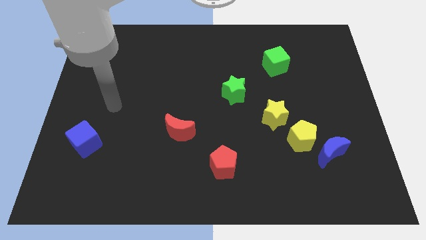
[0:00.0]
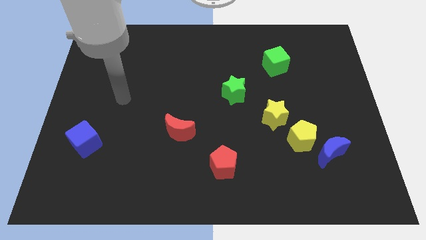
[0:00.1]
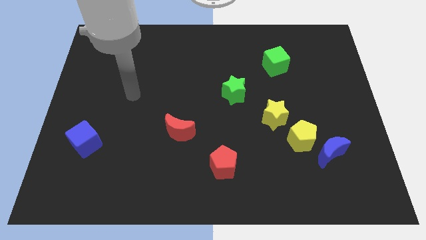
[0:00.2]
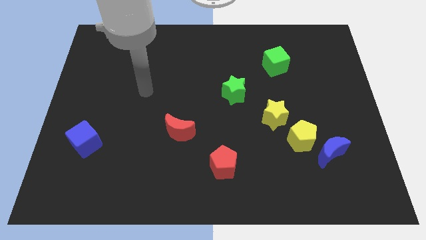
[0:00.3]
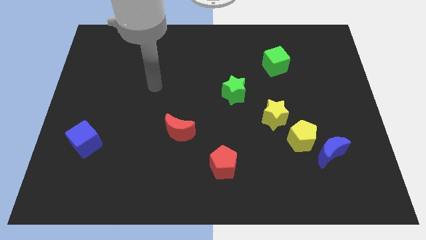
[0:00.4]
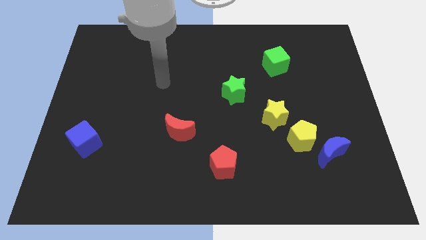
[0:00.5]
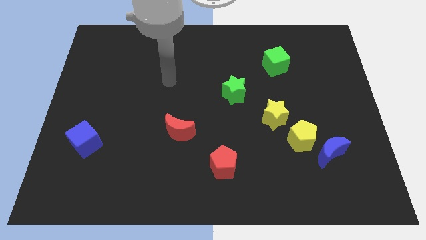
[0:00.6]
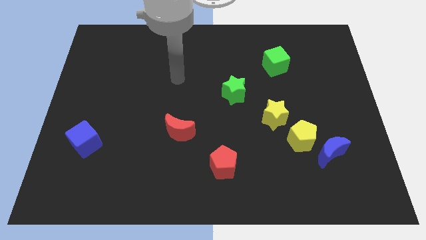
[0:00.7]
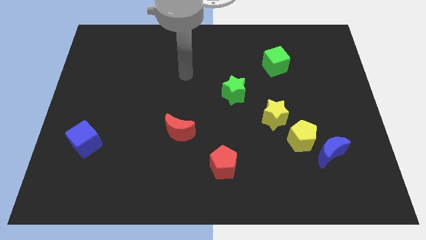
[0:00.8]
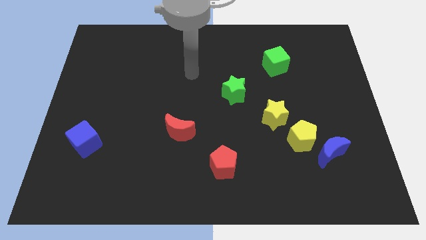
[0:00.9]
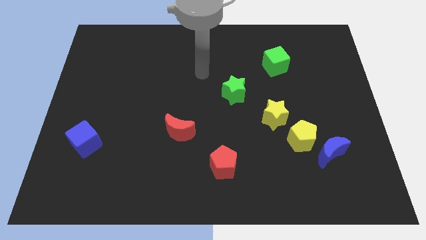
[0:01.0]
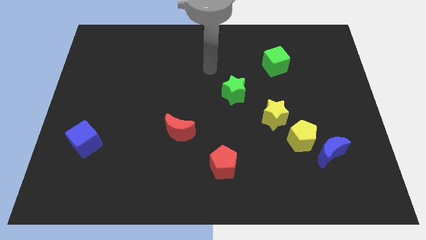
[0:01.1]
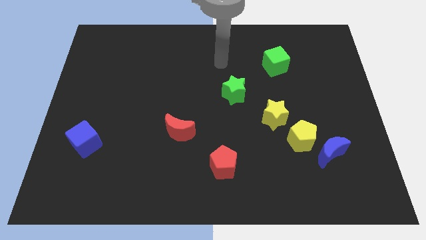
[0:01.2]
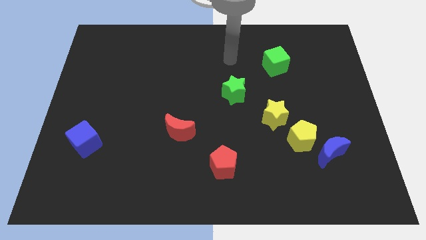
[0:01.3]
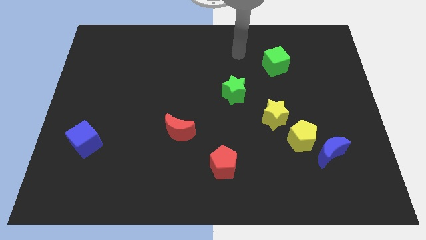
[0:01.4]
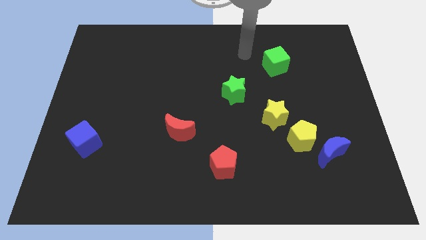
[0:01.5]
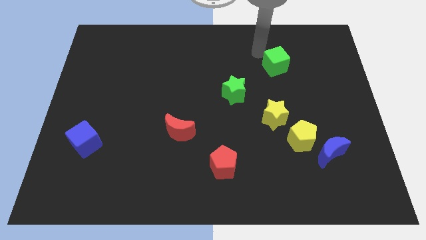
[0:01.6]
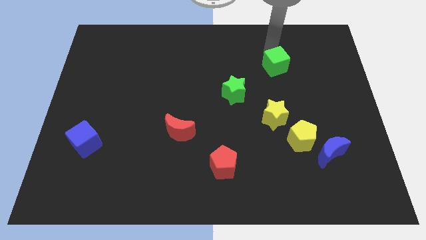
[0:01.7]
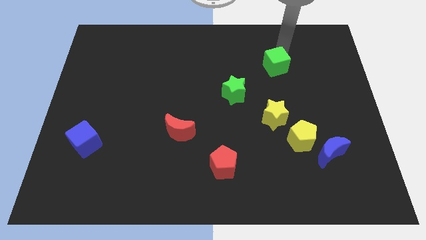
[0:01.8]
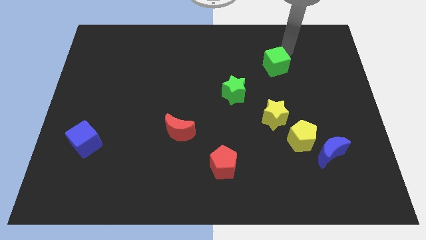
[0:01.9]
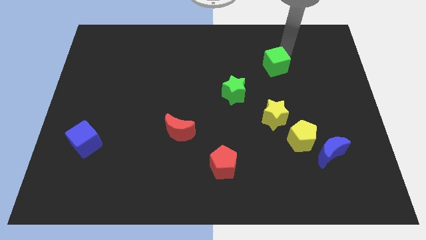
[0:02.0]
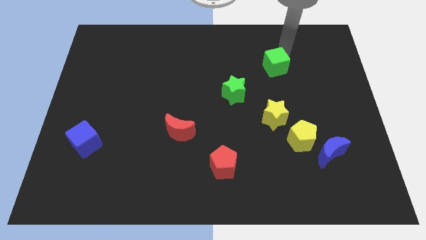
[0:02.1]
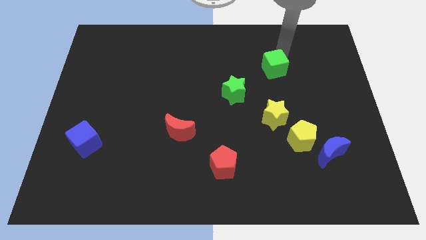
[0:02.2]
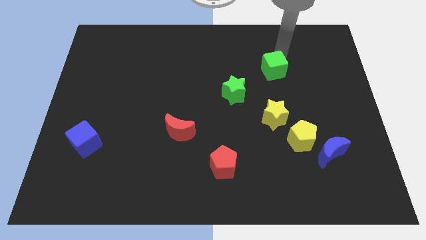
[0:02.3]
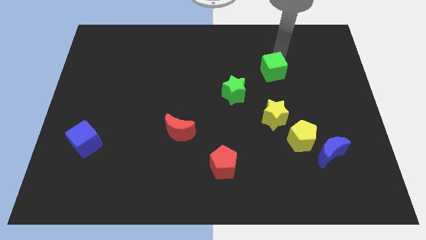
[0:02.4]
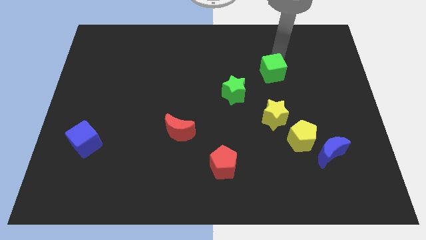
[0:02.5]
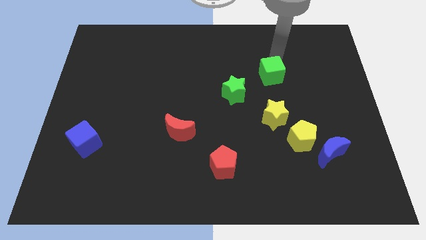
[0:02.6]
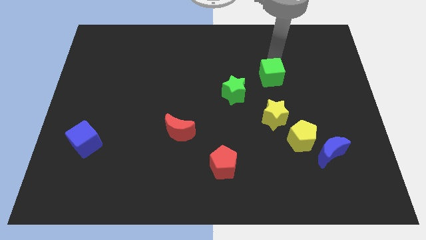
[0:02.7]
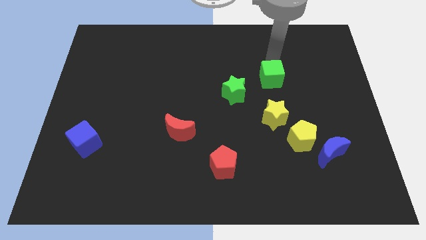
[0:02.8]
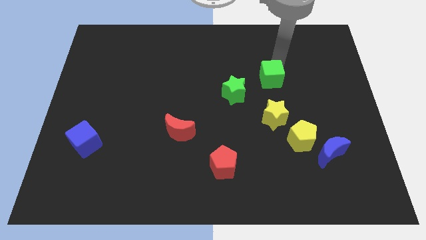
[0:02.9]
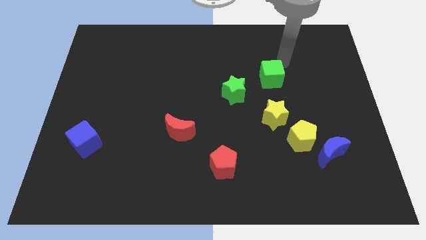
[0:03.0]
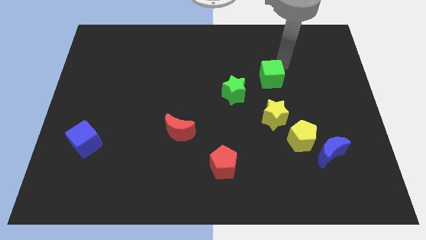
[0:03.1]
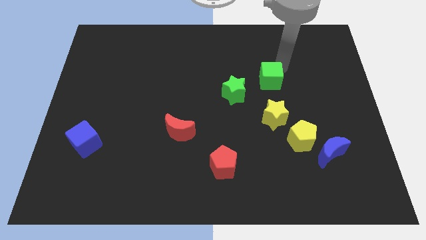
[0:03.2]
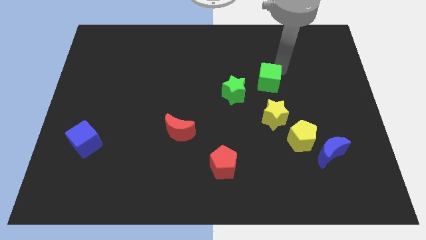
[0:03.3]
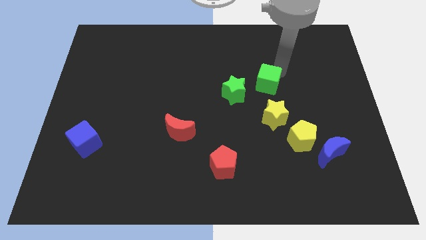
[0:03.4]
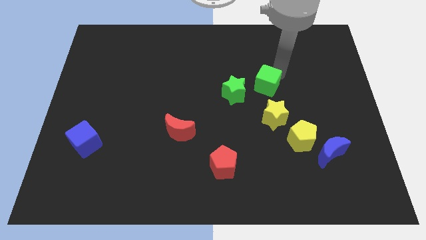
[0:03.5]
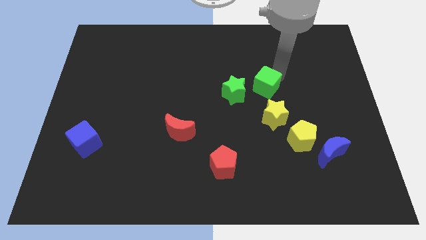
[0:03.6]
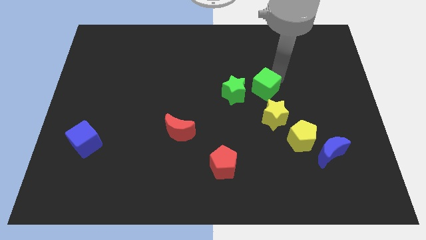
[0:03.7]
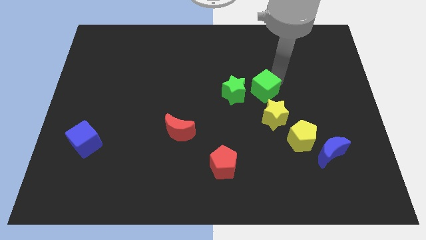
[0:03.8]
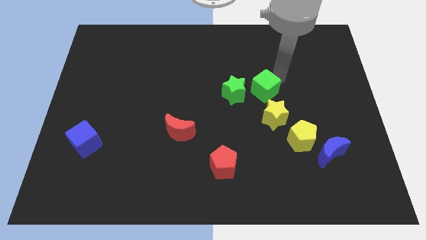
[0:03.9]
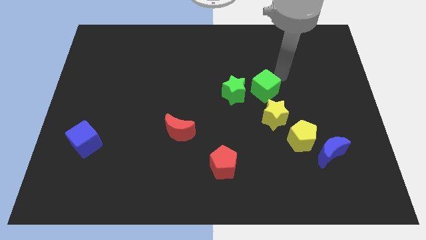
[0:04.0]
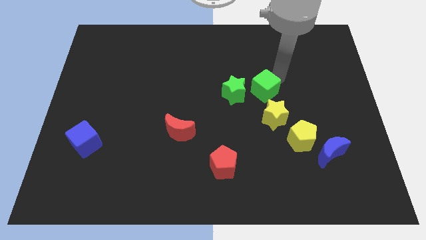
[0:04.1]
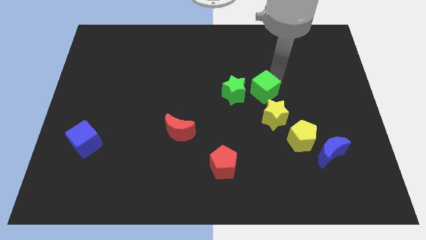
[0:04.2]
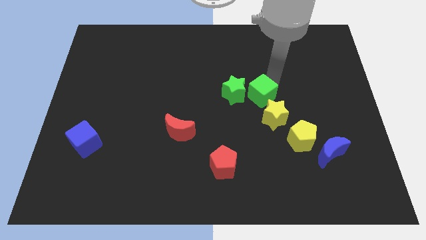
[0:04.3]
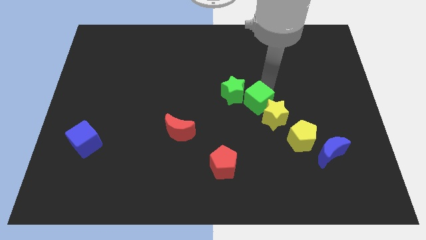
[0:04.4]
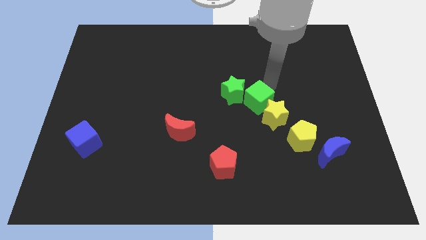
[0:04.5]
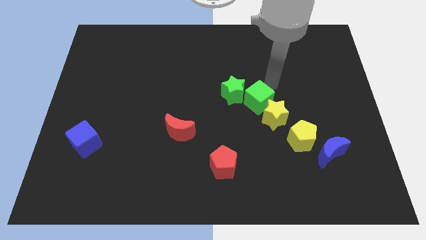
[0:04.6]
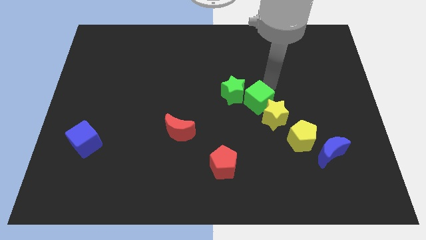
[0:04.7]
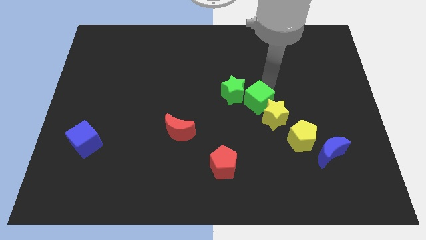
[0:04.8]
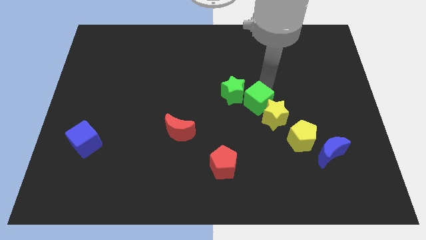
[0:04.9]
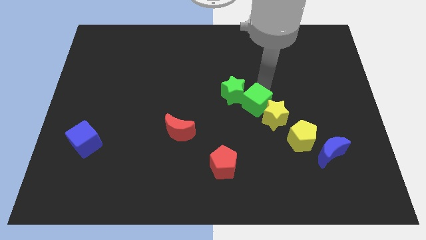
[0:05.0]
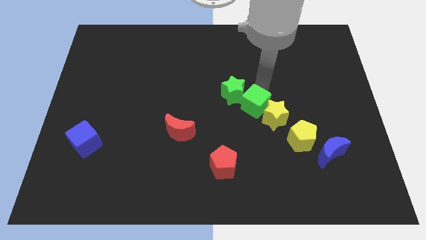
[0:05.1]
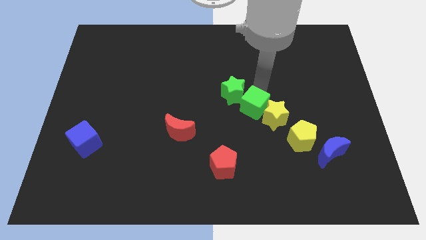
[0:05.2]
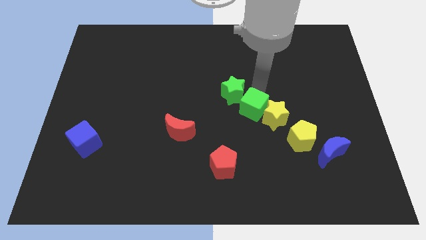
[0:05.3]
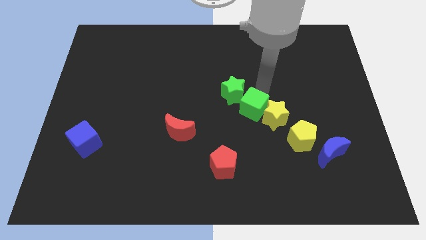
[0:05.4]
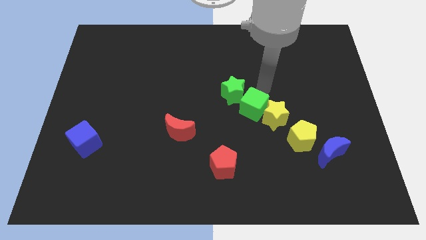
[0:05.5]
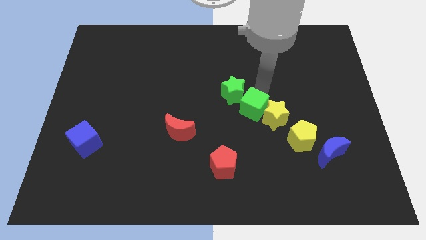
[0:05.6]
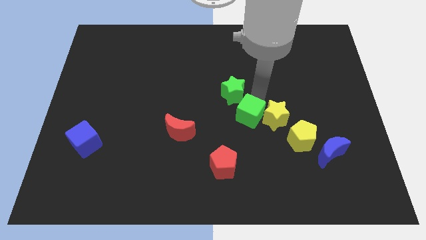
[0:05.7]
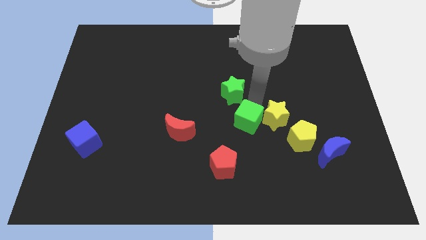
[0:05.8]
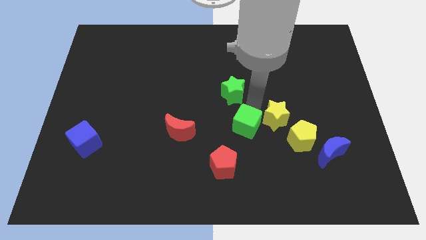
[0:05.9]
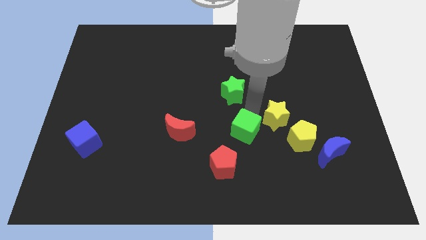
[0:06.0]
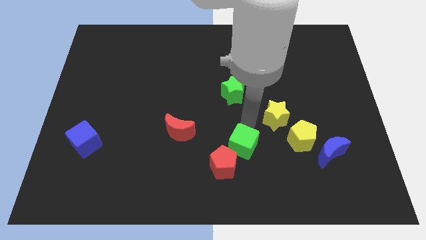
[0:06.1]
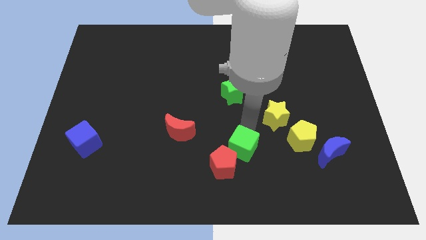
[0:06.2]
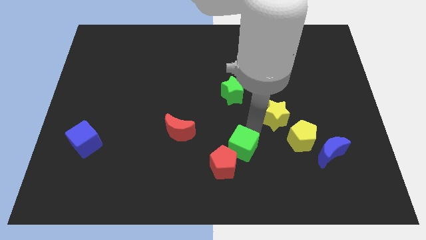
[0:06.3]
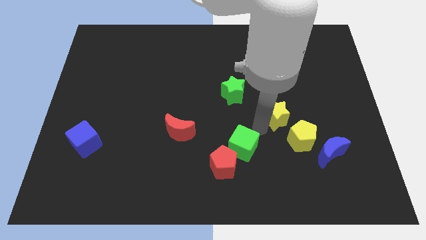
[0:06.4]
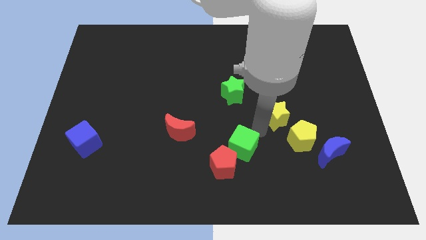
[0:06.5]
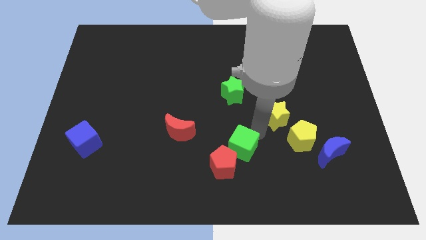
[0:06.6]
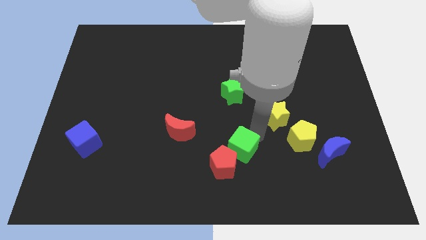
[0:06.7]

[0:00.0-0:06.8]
slide the green cube close to the red pentagon
